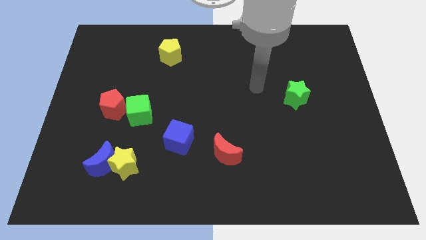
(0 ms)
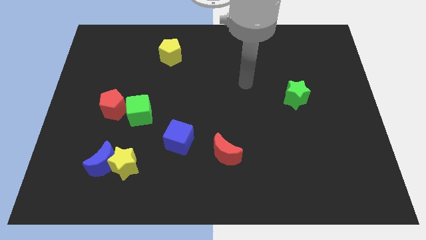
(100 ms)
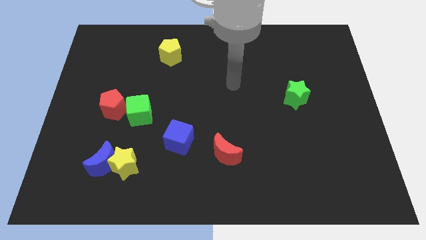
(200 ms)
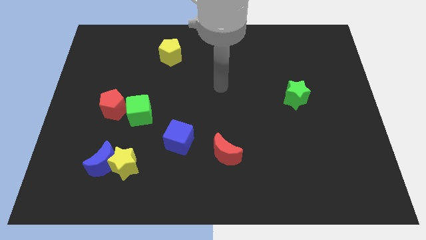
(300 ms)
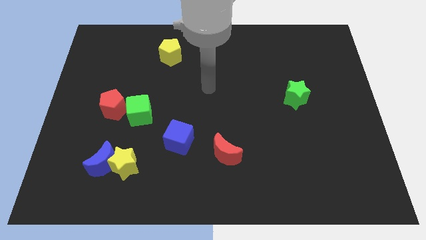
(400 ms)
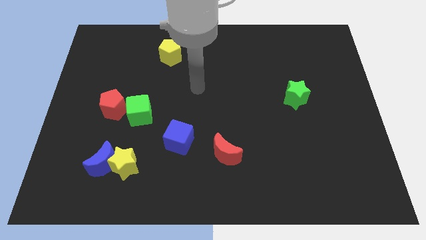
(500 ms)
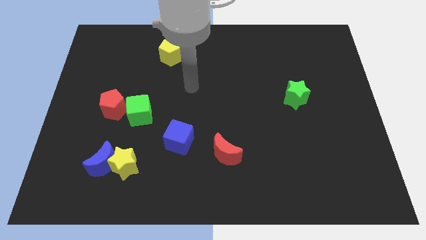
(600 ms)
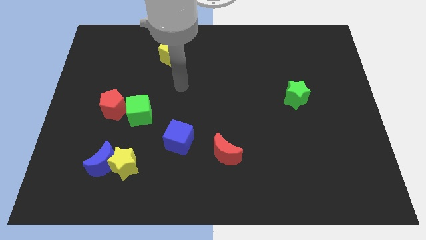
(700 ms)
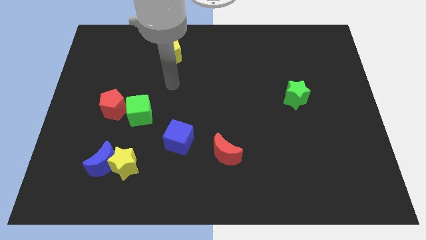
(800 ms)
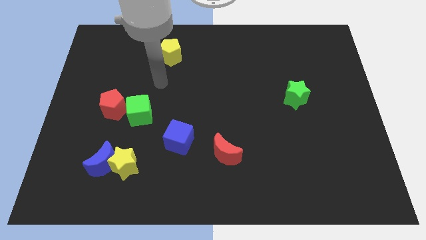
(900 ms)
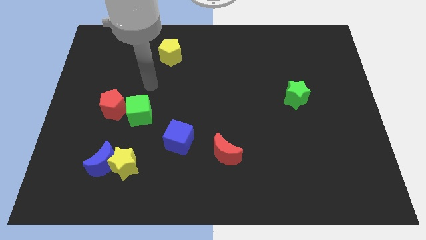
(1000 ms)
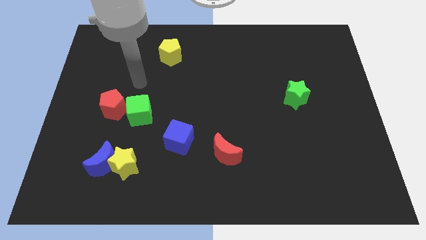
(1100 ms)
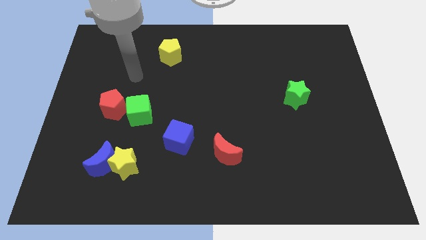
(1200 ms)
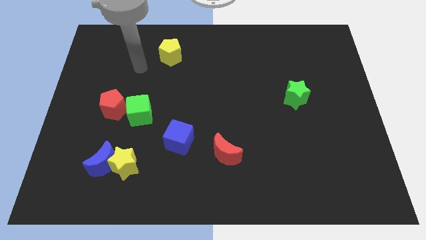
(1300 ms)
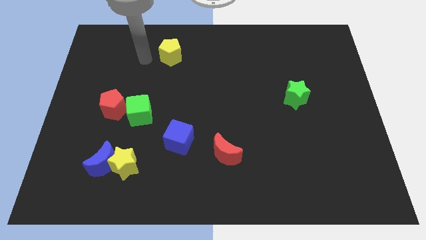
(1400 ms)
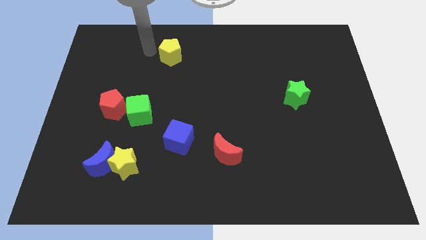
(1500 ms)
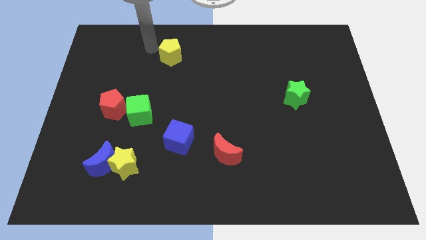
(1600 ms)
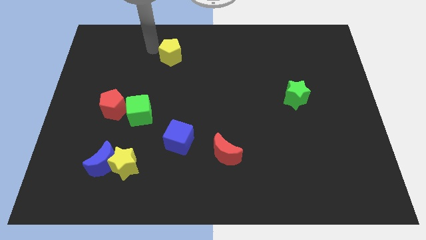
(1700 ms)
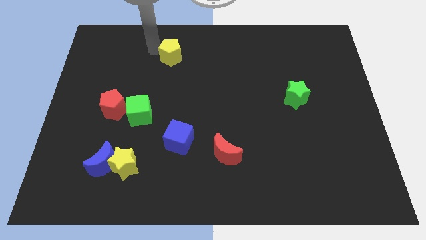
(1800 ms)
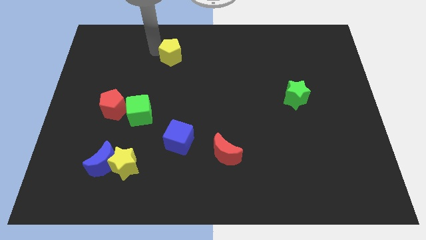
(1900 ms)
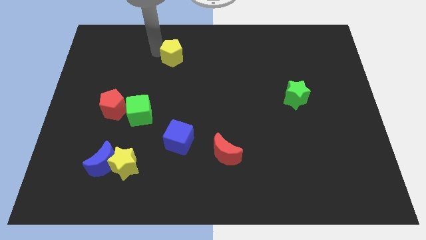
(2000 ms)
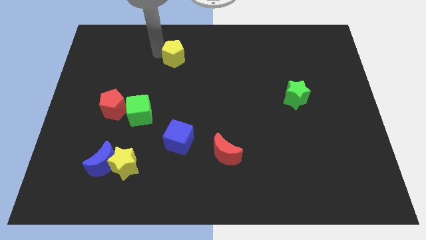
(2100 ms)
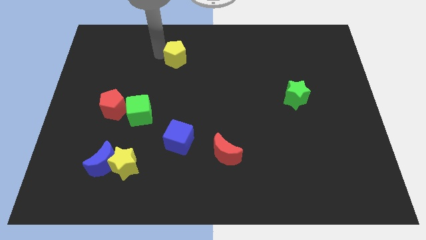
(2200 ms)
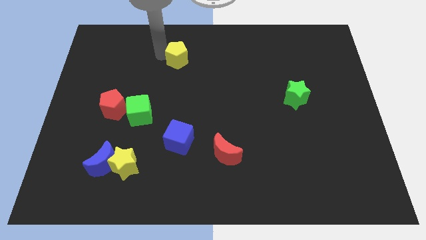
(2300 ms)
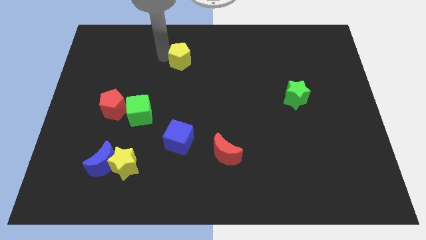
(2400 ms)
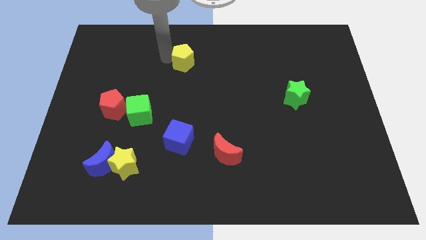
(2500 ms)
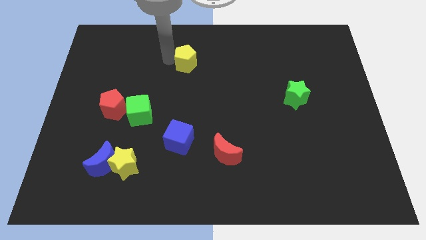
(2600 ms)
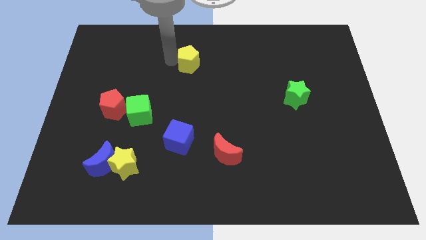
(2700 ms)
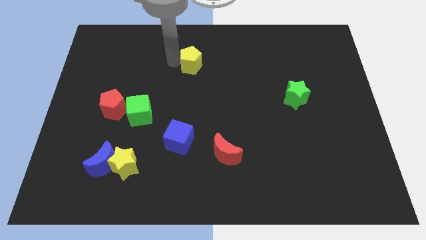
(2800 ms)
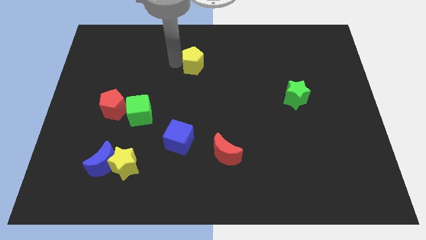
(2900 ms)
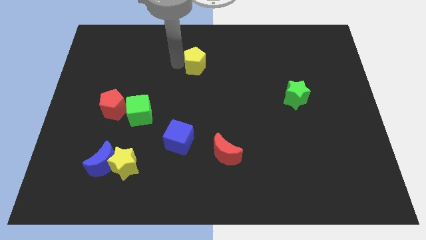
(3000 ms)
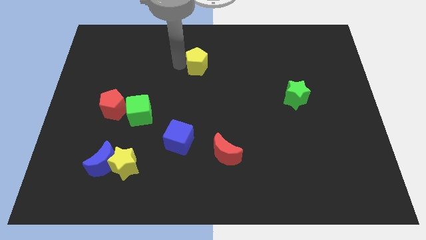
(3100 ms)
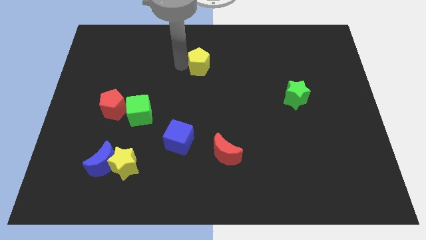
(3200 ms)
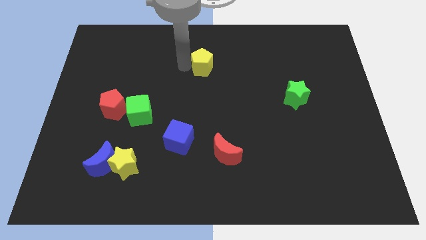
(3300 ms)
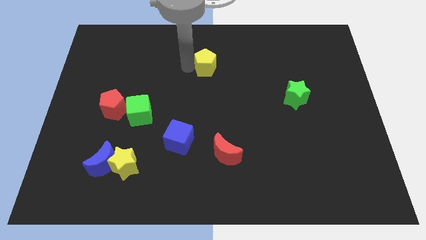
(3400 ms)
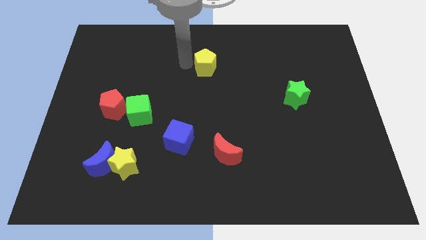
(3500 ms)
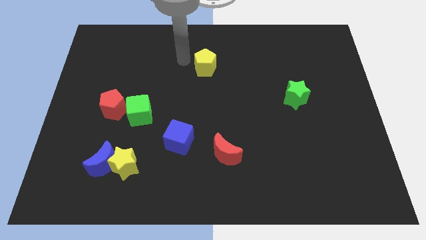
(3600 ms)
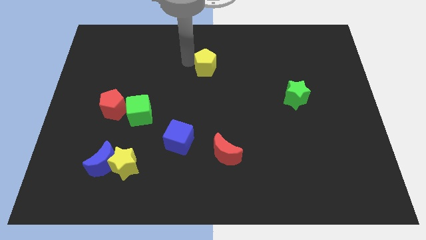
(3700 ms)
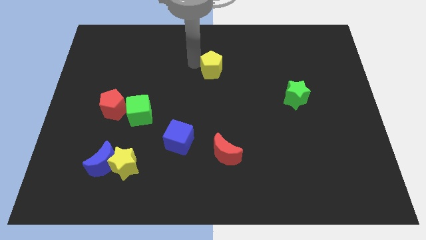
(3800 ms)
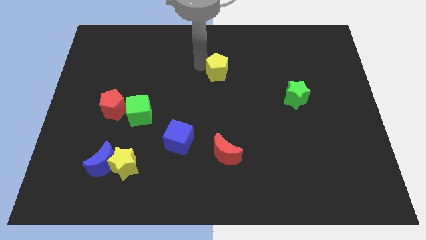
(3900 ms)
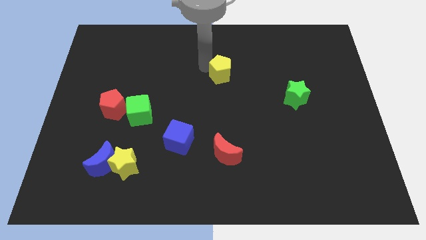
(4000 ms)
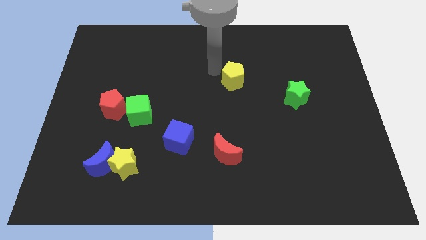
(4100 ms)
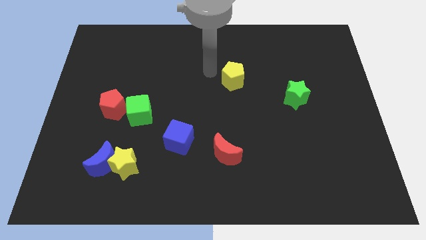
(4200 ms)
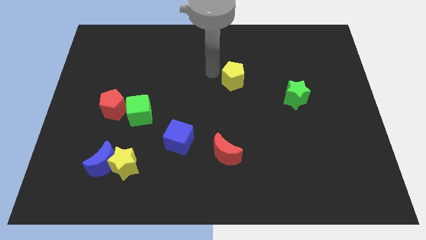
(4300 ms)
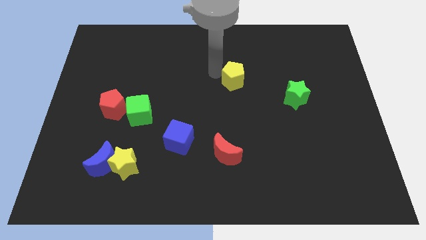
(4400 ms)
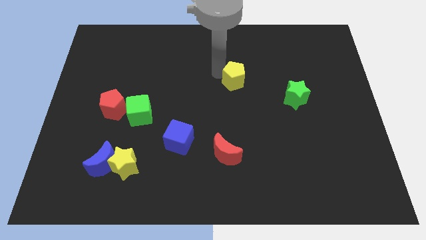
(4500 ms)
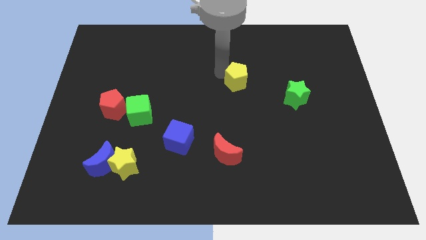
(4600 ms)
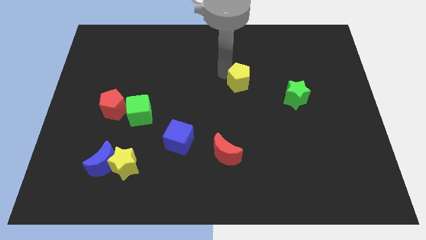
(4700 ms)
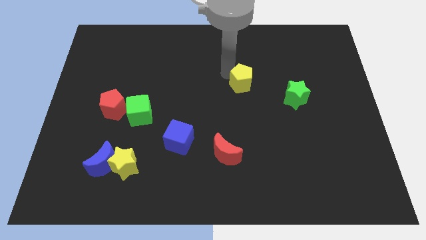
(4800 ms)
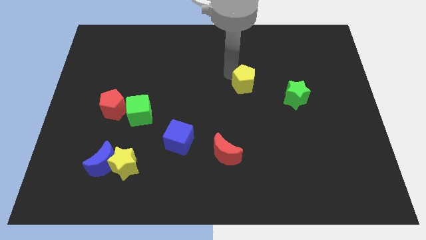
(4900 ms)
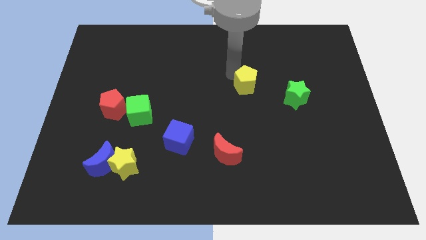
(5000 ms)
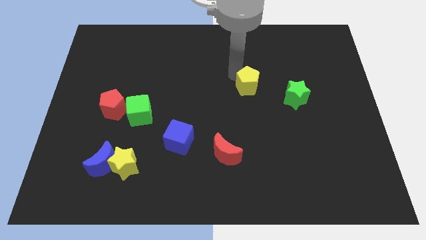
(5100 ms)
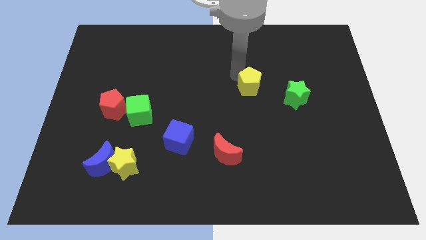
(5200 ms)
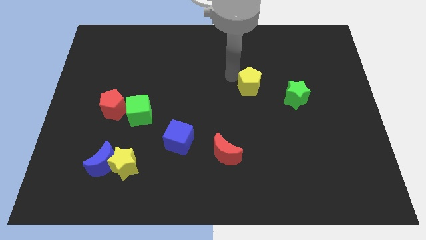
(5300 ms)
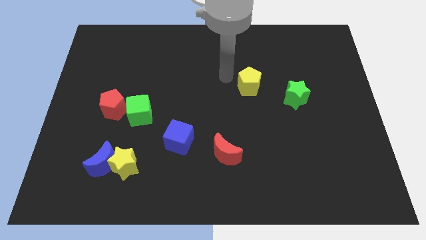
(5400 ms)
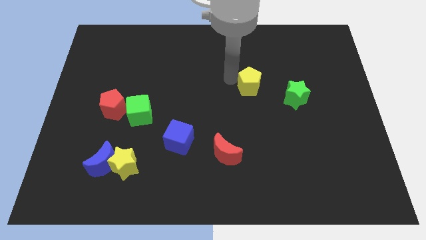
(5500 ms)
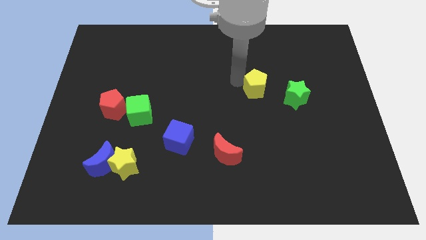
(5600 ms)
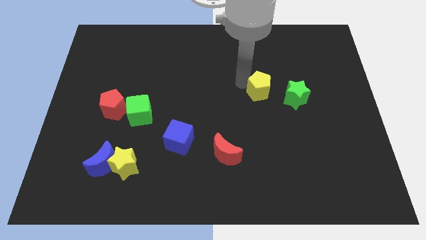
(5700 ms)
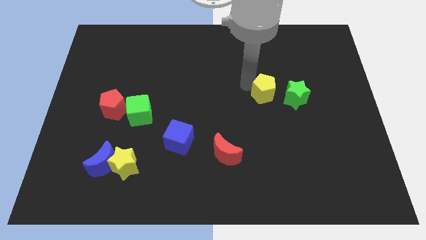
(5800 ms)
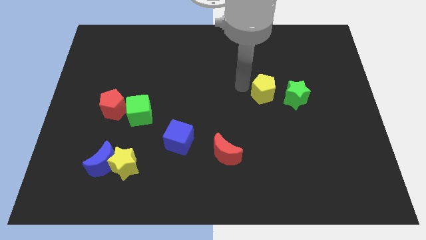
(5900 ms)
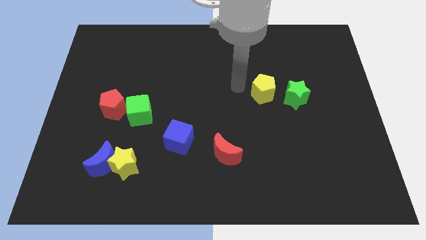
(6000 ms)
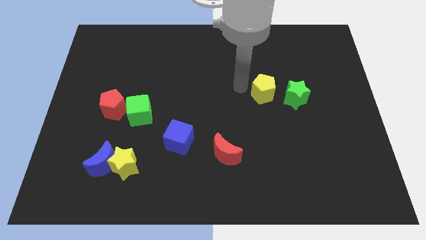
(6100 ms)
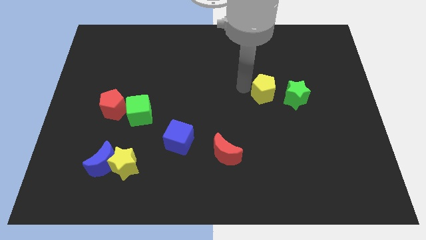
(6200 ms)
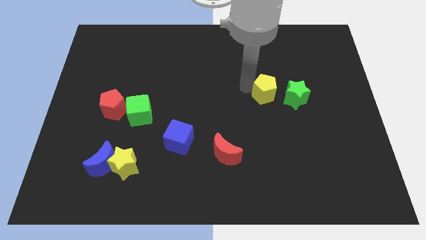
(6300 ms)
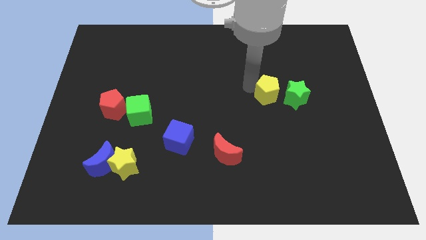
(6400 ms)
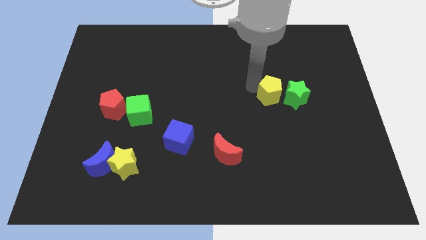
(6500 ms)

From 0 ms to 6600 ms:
slide the yellow pentagon towards the green star

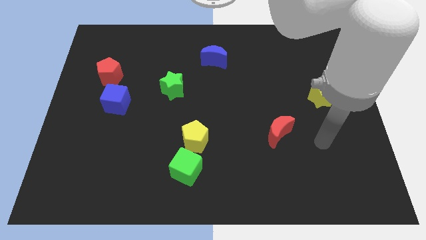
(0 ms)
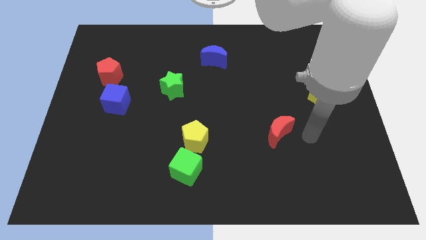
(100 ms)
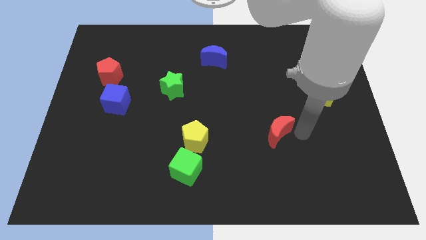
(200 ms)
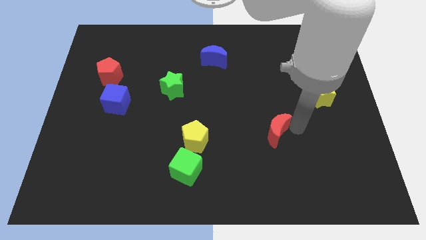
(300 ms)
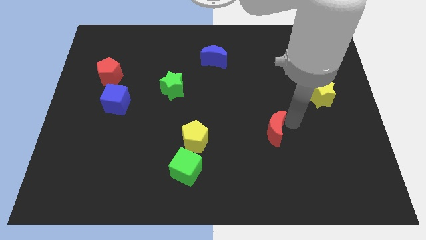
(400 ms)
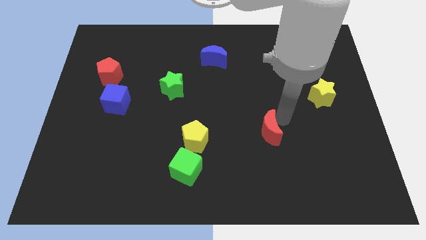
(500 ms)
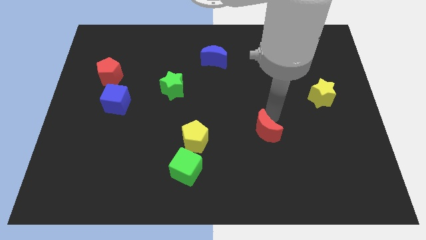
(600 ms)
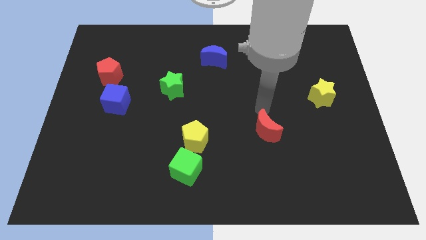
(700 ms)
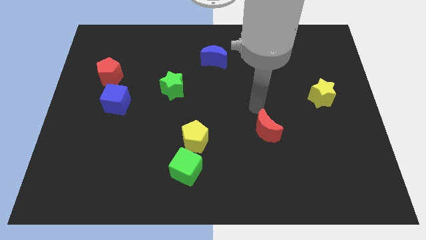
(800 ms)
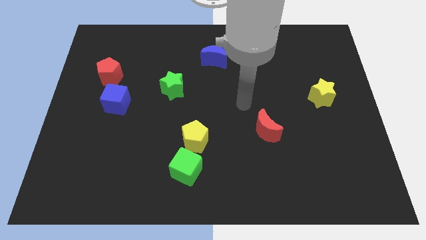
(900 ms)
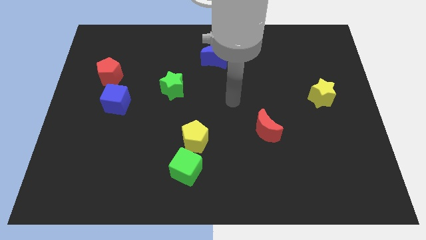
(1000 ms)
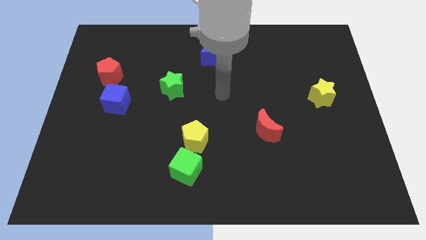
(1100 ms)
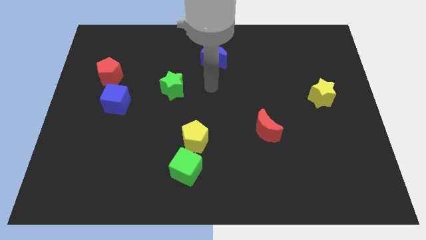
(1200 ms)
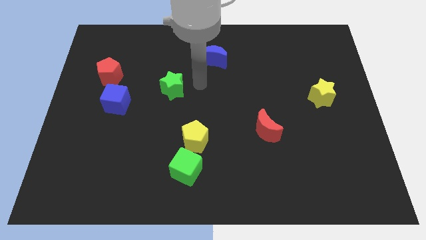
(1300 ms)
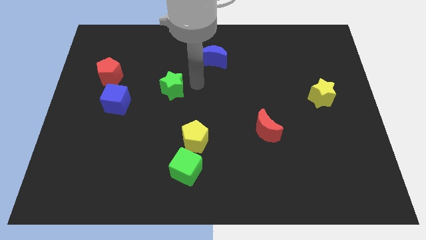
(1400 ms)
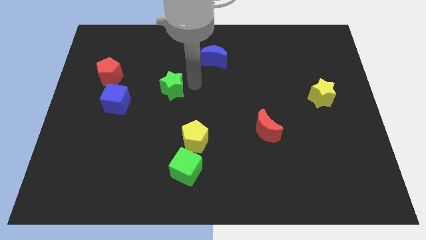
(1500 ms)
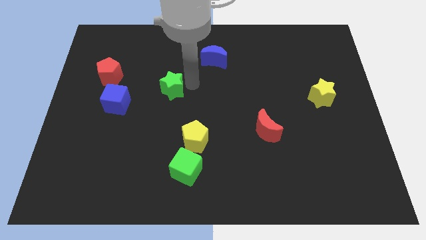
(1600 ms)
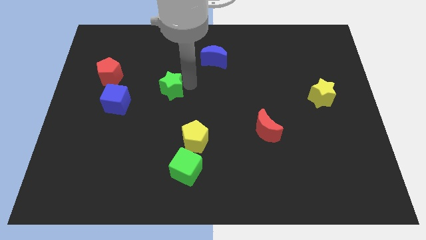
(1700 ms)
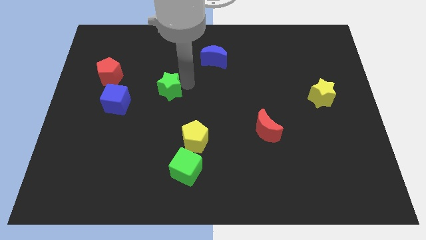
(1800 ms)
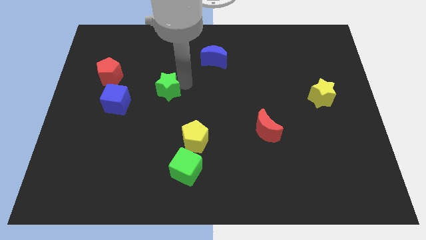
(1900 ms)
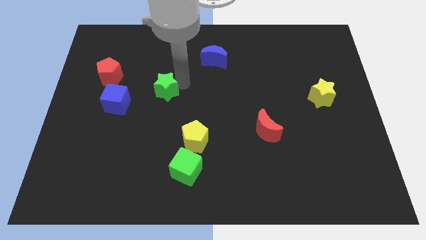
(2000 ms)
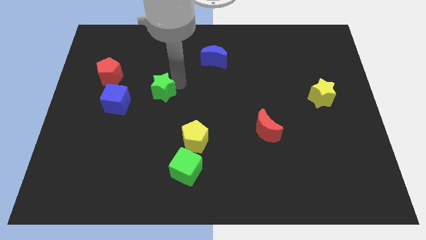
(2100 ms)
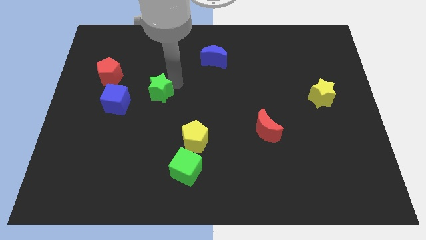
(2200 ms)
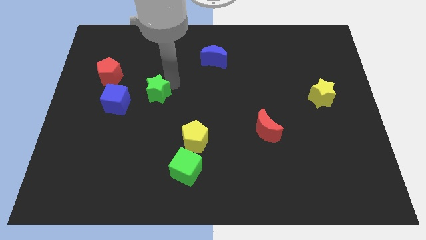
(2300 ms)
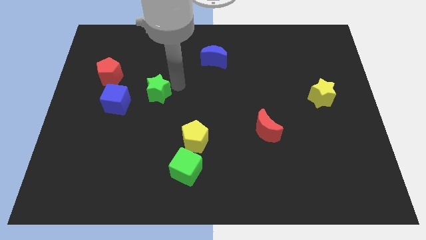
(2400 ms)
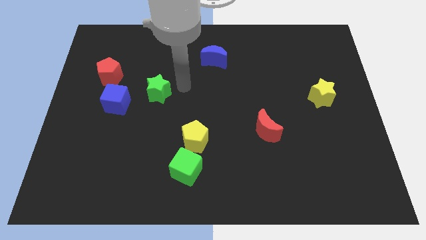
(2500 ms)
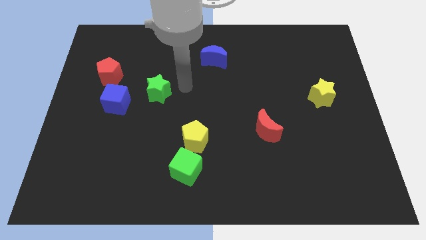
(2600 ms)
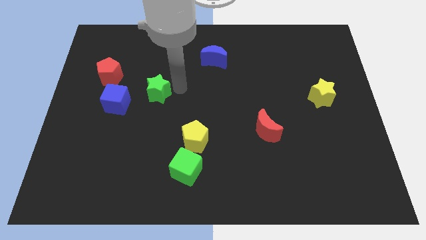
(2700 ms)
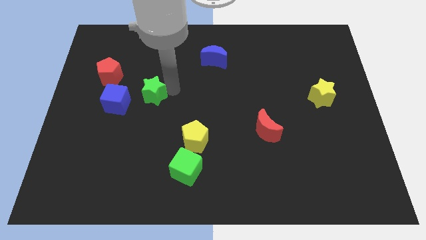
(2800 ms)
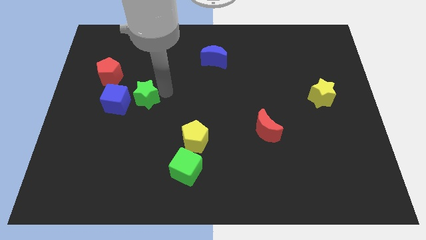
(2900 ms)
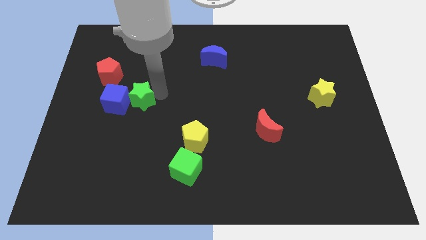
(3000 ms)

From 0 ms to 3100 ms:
put the green star next to the blue cube
